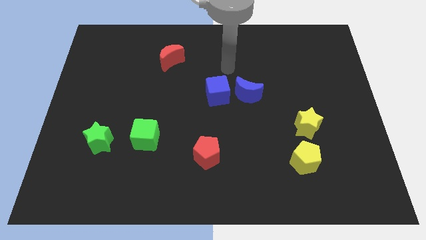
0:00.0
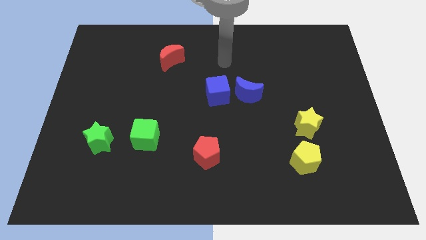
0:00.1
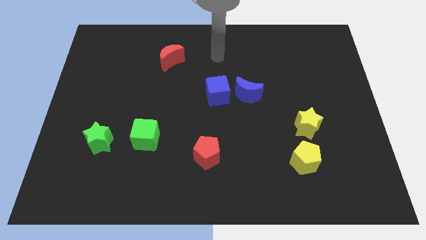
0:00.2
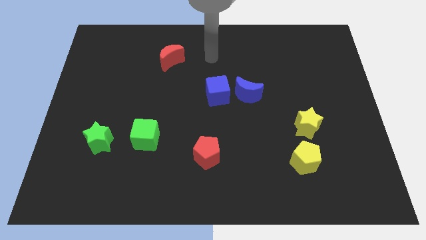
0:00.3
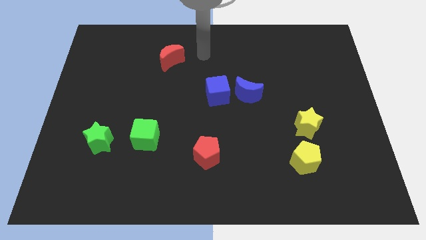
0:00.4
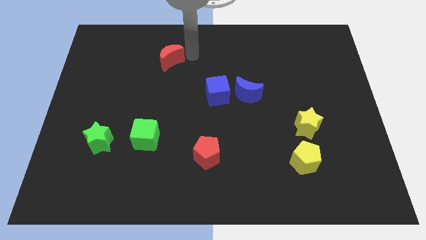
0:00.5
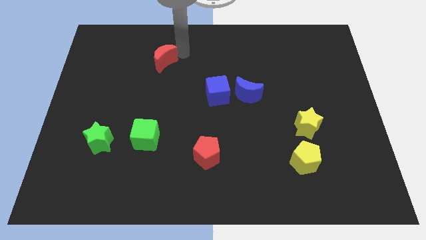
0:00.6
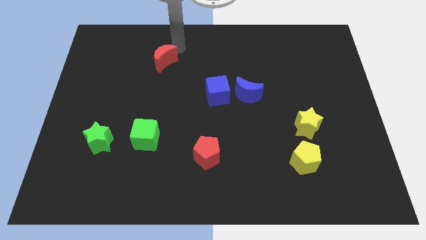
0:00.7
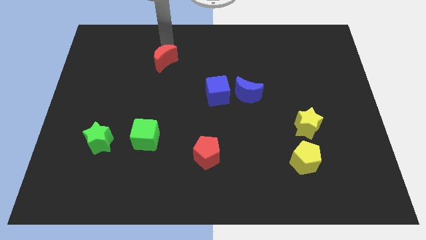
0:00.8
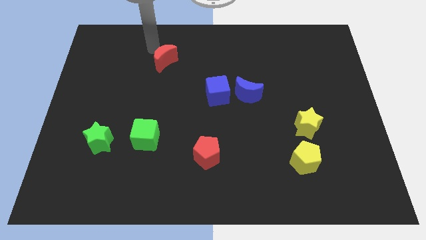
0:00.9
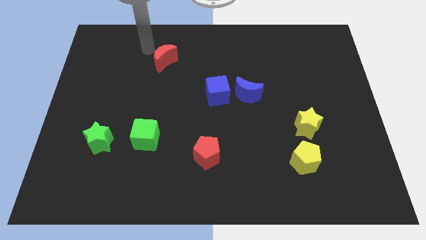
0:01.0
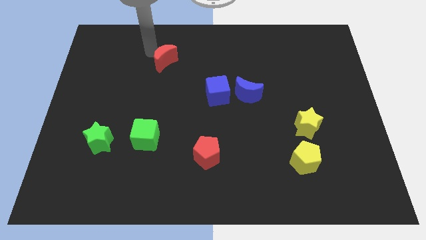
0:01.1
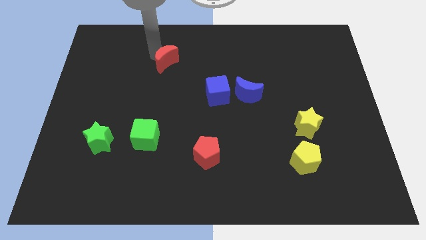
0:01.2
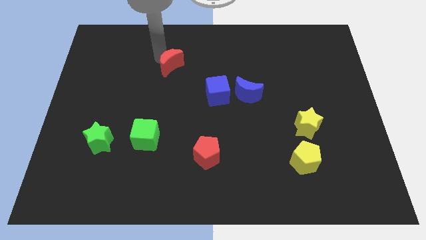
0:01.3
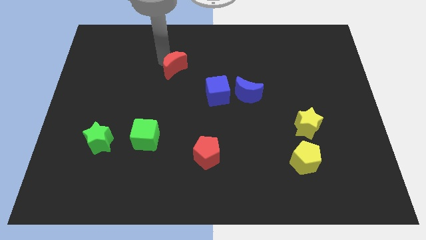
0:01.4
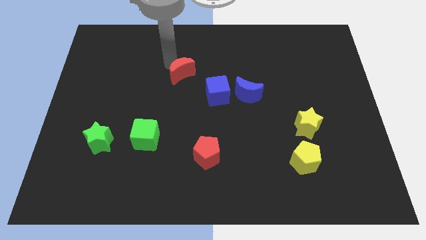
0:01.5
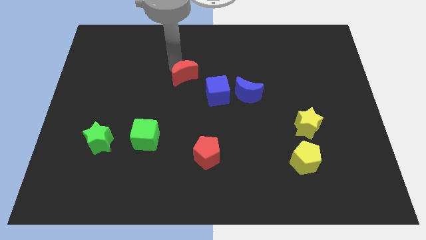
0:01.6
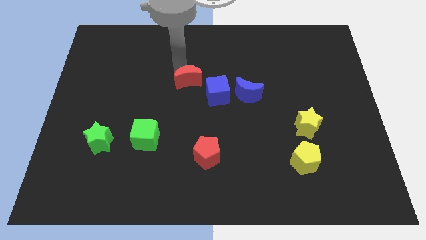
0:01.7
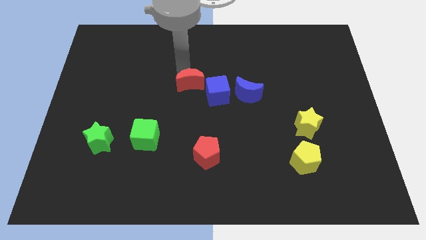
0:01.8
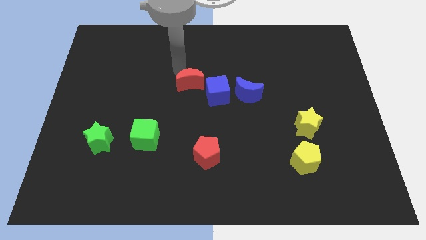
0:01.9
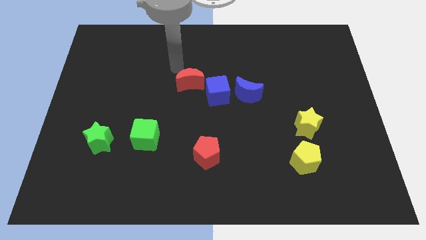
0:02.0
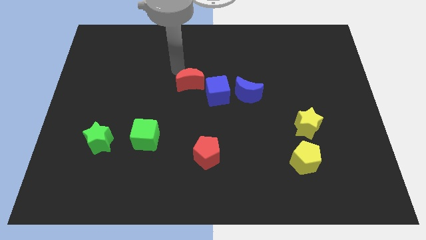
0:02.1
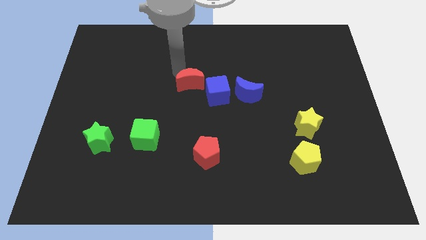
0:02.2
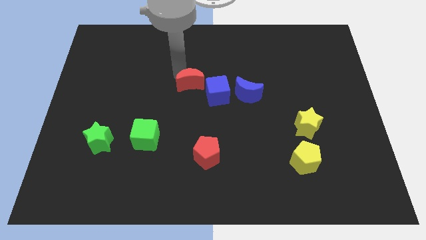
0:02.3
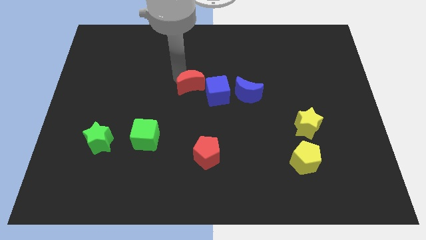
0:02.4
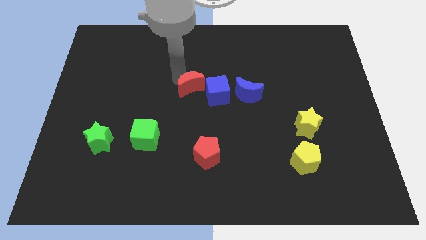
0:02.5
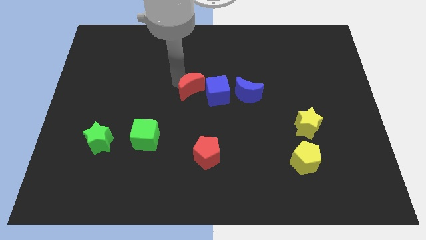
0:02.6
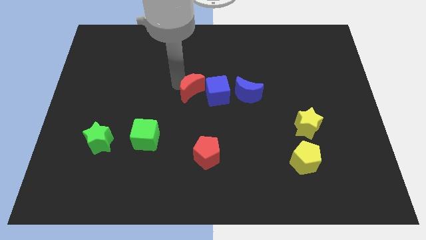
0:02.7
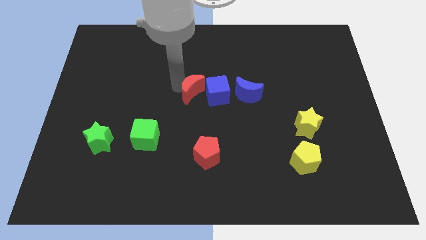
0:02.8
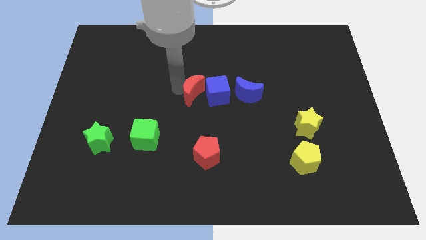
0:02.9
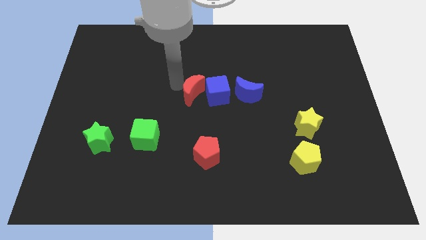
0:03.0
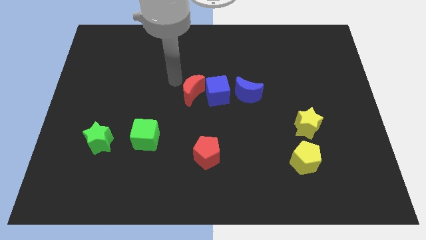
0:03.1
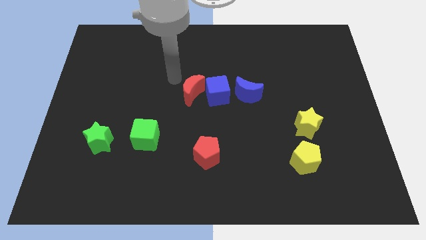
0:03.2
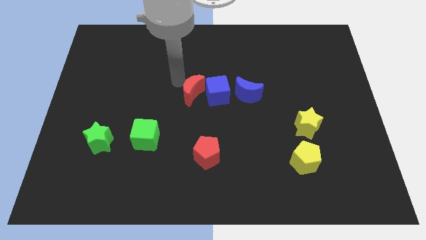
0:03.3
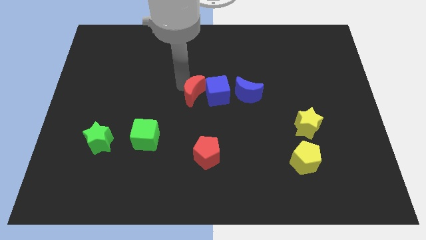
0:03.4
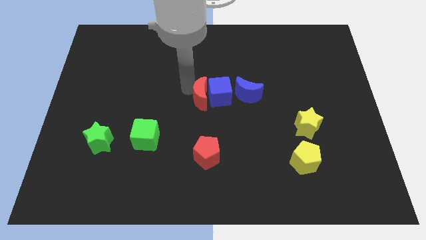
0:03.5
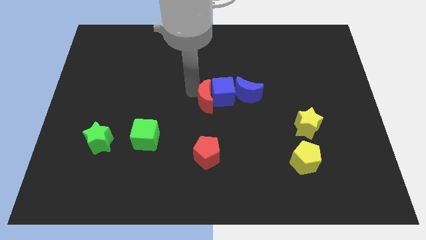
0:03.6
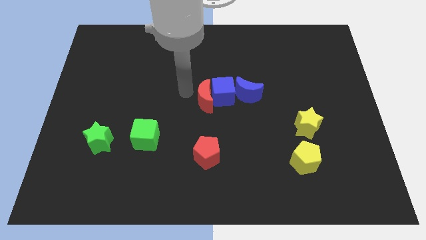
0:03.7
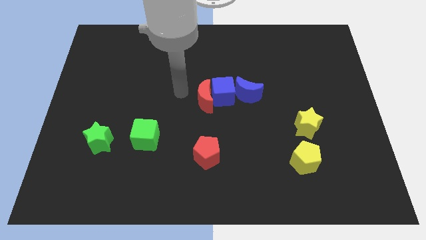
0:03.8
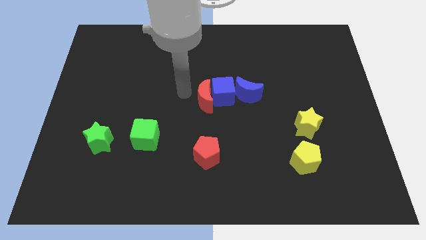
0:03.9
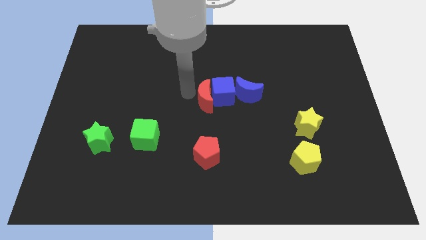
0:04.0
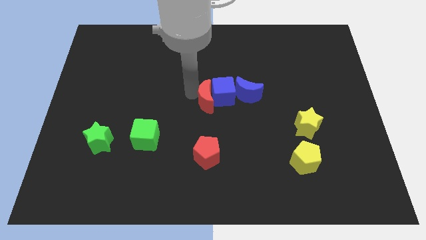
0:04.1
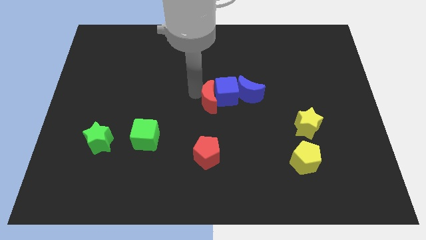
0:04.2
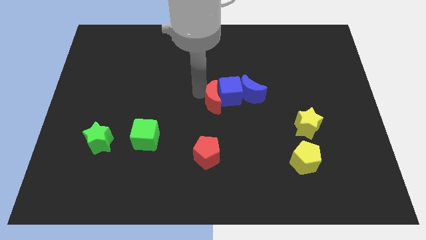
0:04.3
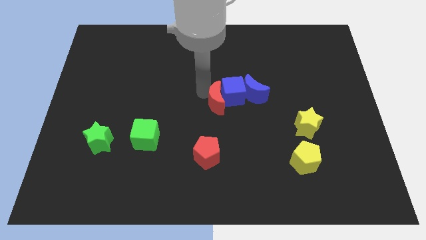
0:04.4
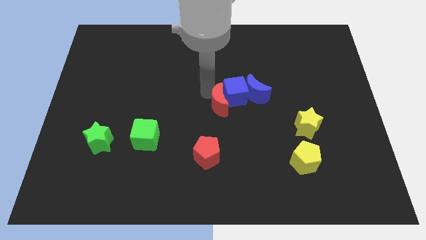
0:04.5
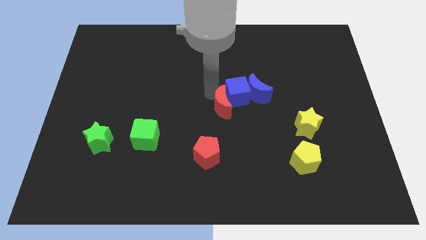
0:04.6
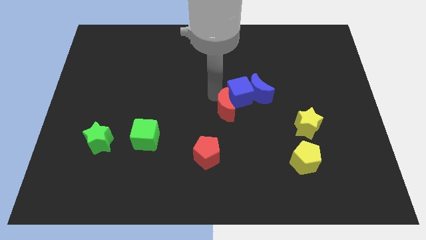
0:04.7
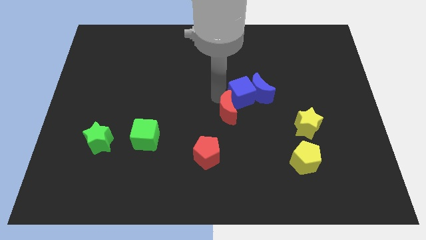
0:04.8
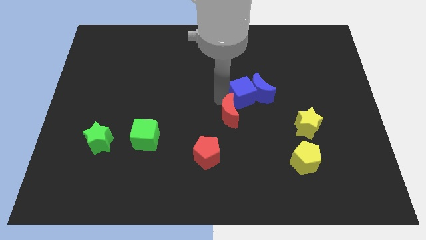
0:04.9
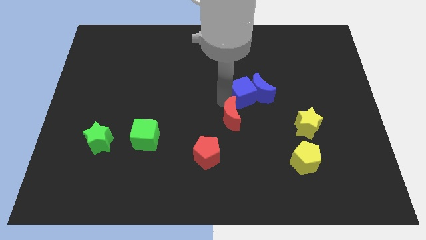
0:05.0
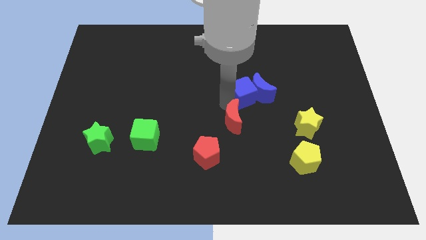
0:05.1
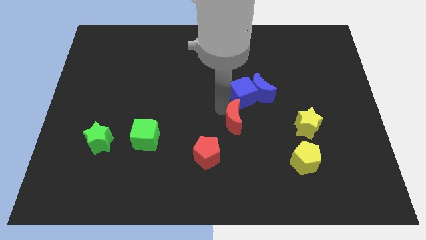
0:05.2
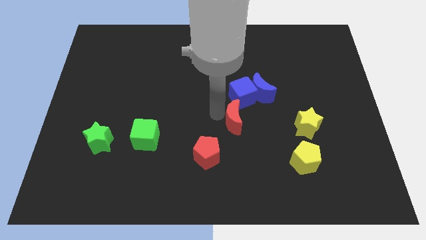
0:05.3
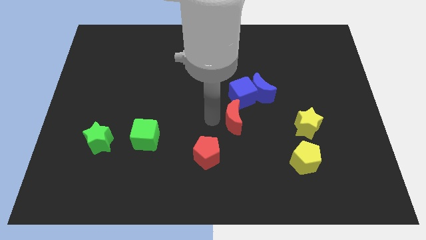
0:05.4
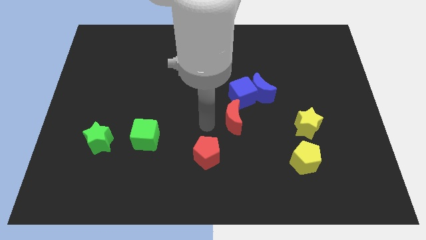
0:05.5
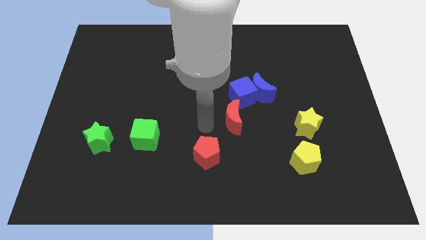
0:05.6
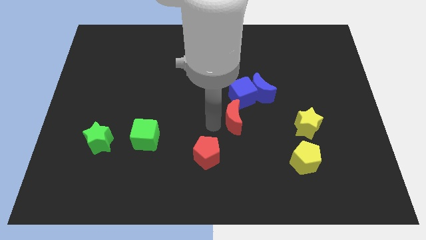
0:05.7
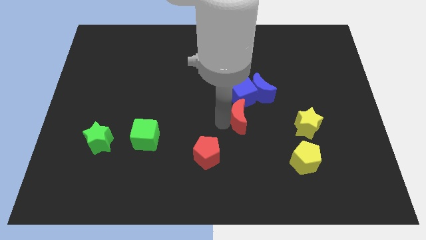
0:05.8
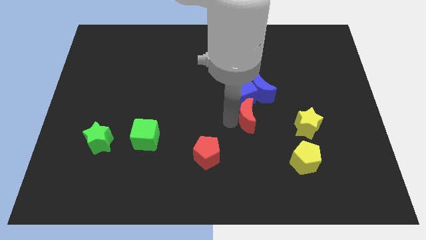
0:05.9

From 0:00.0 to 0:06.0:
put the red moon diagonally down and to the right of the blue cube
